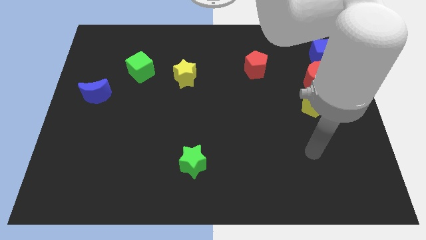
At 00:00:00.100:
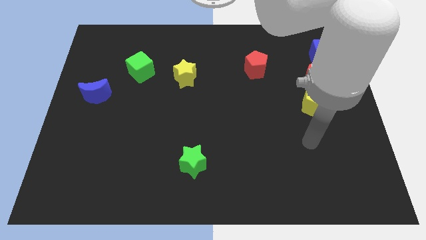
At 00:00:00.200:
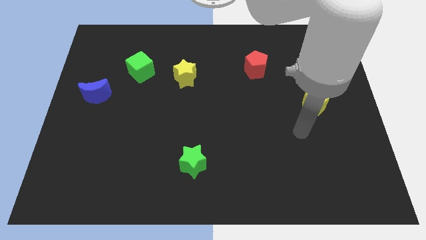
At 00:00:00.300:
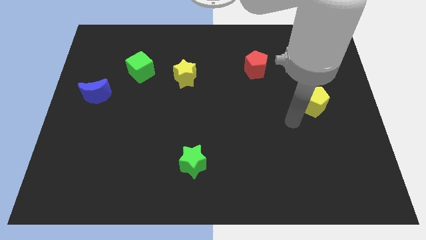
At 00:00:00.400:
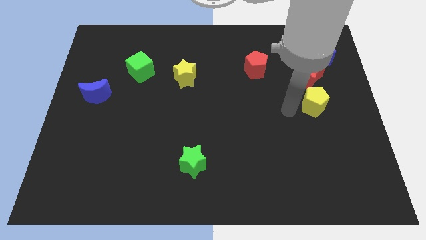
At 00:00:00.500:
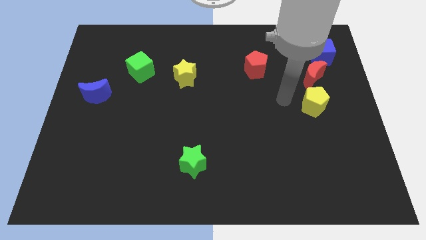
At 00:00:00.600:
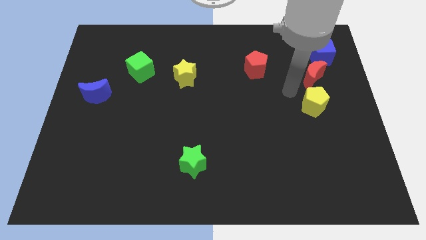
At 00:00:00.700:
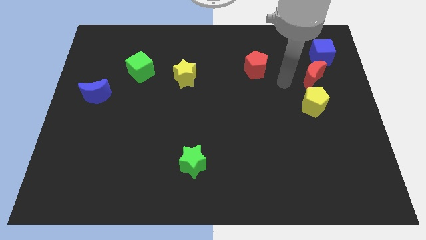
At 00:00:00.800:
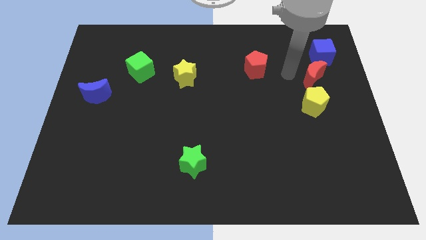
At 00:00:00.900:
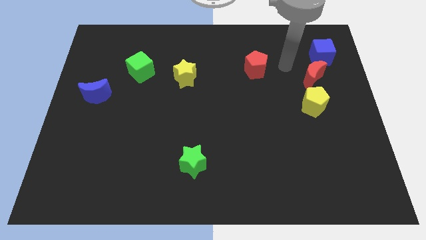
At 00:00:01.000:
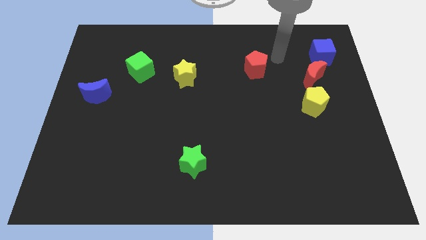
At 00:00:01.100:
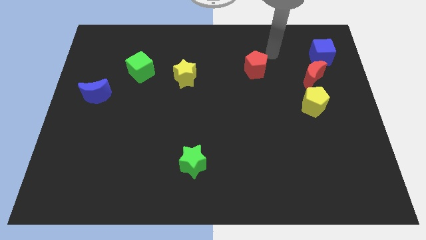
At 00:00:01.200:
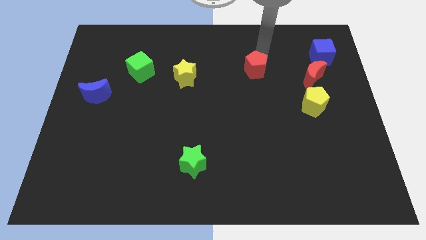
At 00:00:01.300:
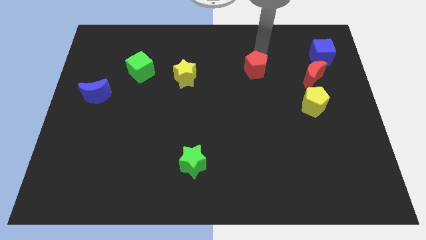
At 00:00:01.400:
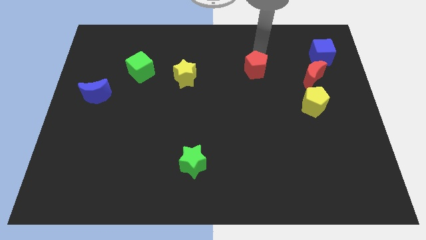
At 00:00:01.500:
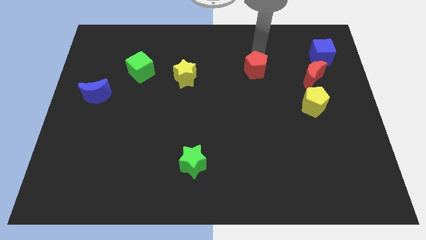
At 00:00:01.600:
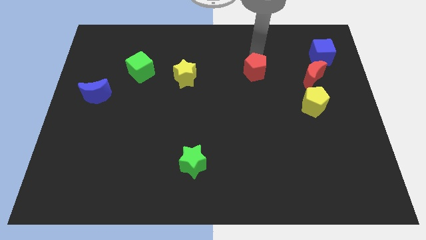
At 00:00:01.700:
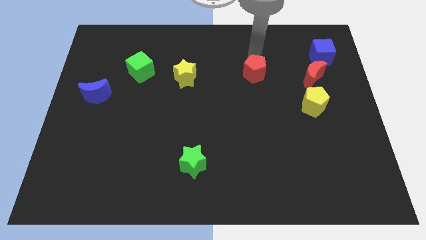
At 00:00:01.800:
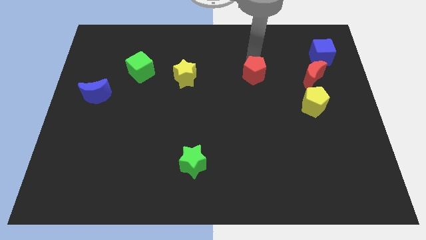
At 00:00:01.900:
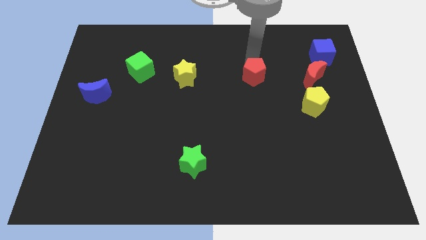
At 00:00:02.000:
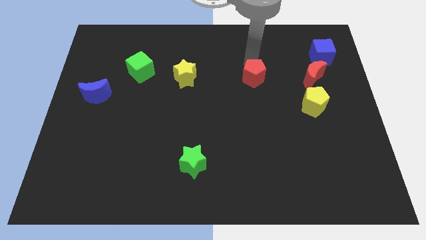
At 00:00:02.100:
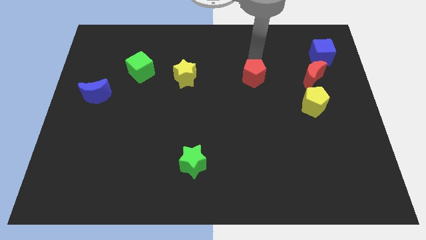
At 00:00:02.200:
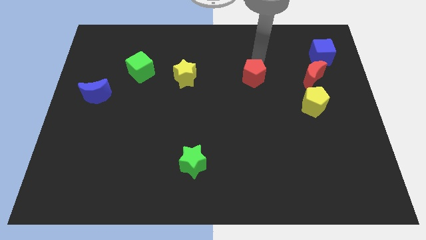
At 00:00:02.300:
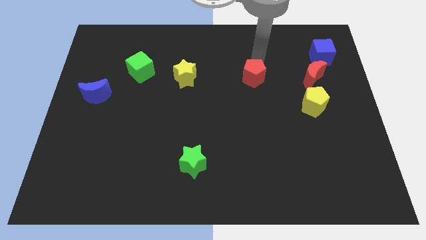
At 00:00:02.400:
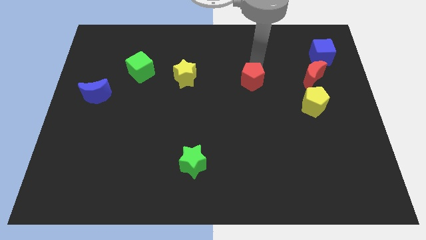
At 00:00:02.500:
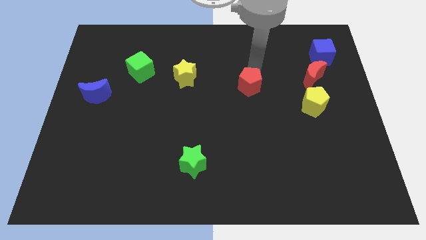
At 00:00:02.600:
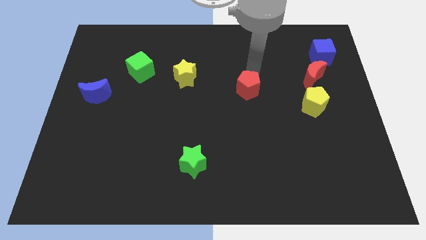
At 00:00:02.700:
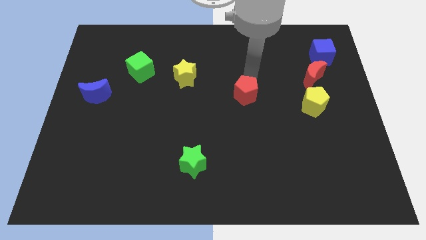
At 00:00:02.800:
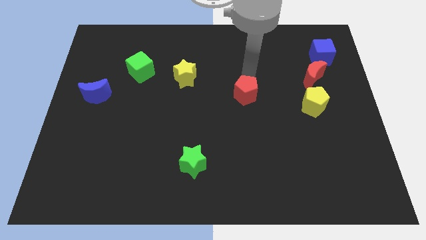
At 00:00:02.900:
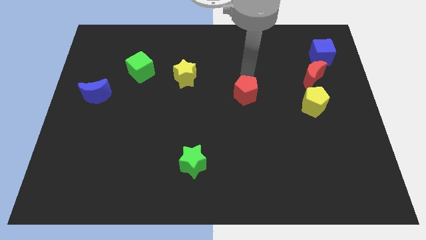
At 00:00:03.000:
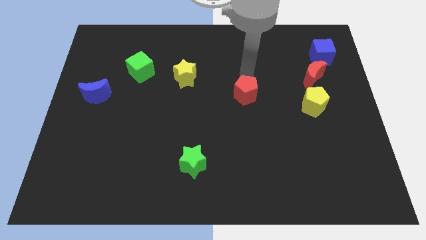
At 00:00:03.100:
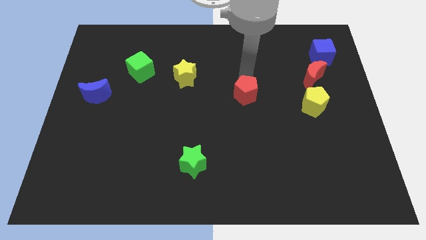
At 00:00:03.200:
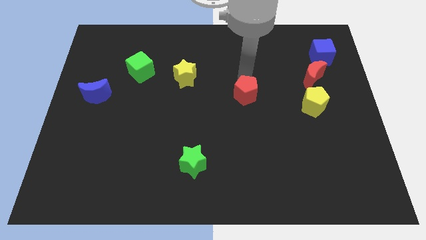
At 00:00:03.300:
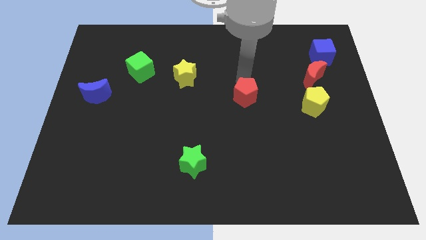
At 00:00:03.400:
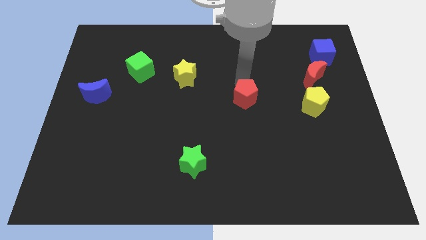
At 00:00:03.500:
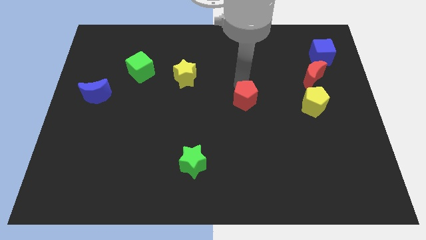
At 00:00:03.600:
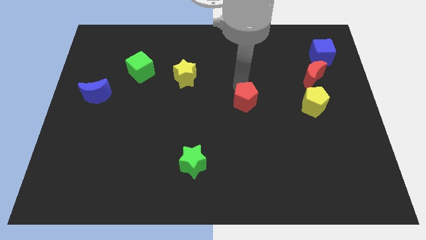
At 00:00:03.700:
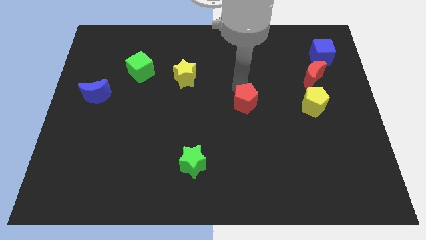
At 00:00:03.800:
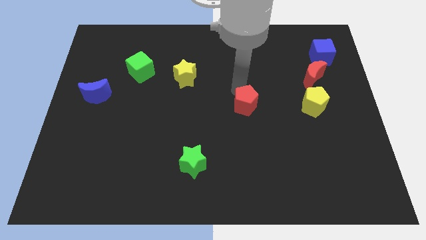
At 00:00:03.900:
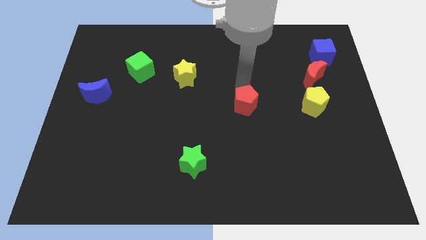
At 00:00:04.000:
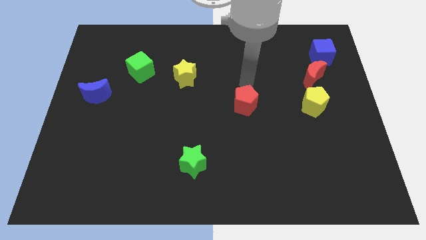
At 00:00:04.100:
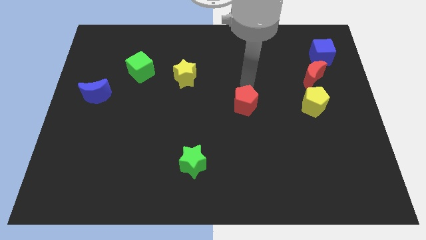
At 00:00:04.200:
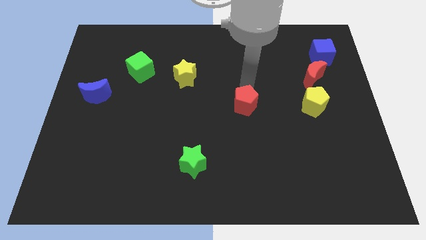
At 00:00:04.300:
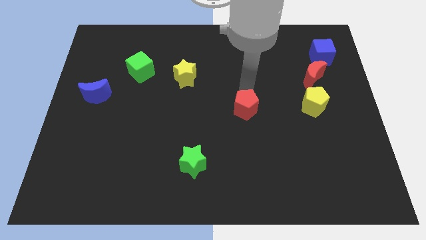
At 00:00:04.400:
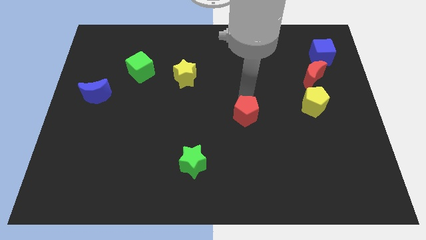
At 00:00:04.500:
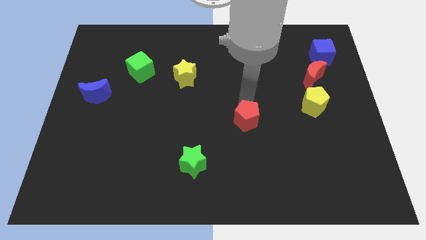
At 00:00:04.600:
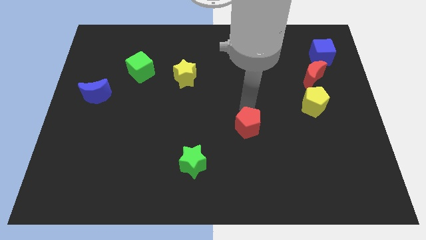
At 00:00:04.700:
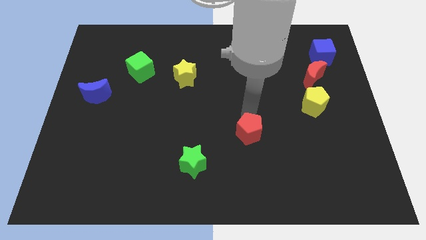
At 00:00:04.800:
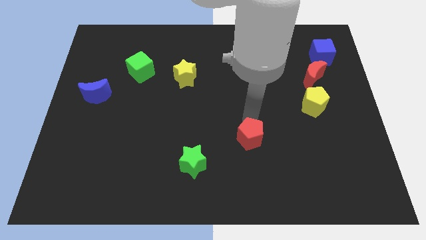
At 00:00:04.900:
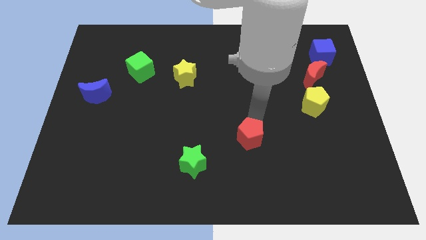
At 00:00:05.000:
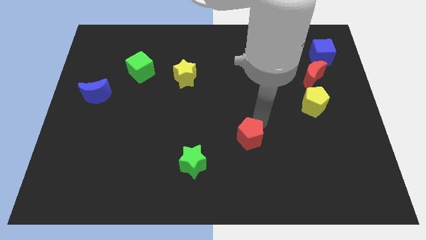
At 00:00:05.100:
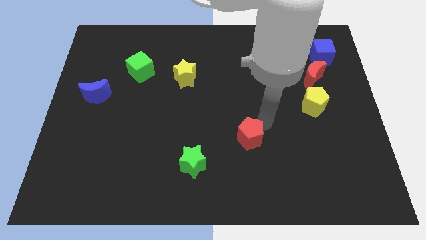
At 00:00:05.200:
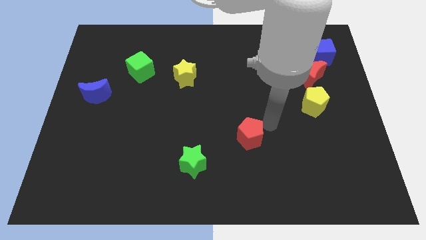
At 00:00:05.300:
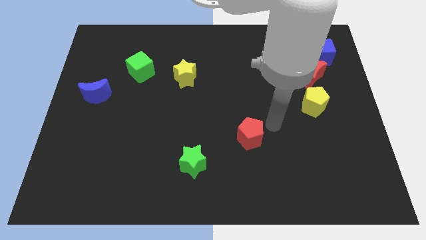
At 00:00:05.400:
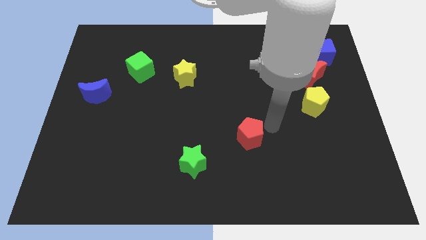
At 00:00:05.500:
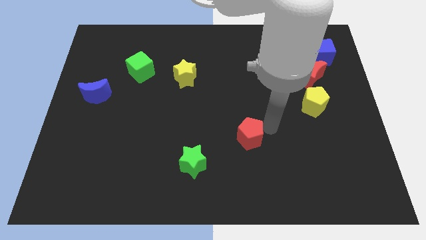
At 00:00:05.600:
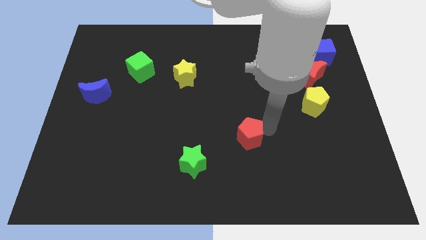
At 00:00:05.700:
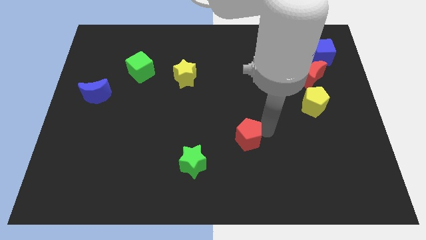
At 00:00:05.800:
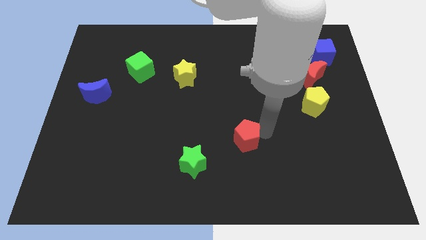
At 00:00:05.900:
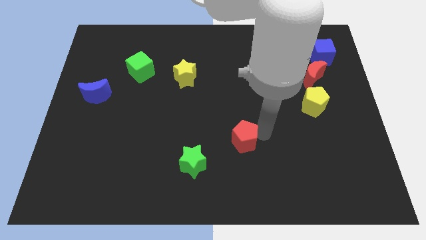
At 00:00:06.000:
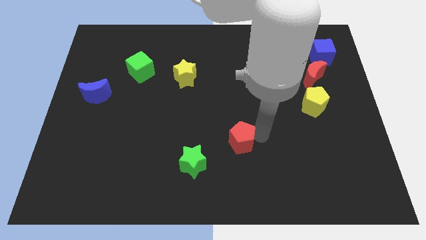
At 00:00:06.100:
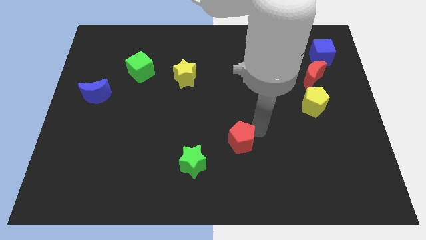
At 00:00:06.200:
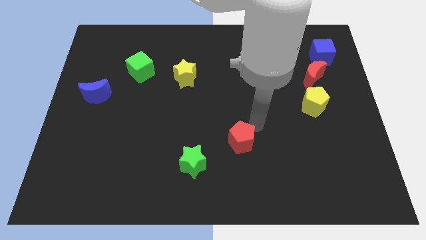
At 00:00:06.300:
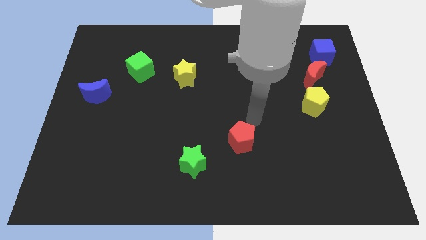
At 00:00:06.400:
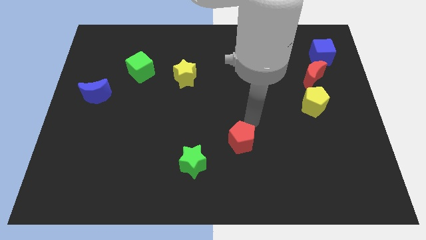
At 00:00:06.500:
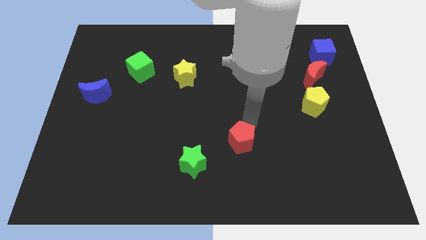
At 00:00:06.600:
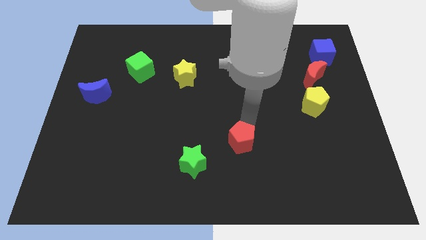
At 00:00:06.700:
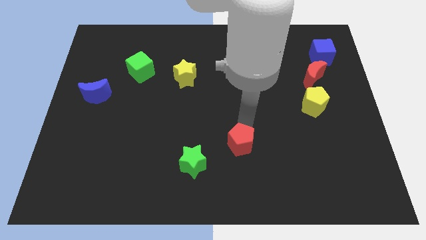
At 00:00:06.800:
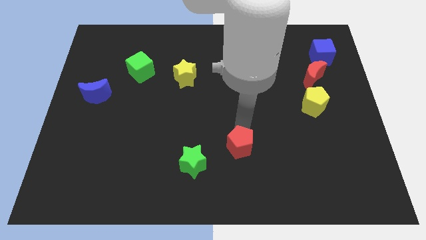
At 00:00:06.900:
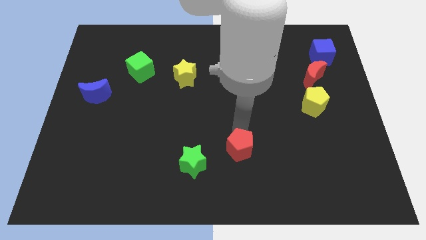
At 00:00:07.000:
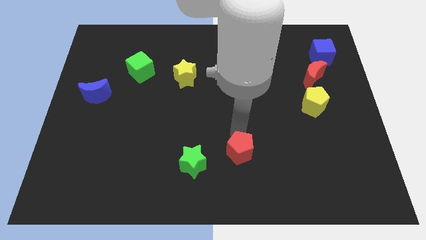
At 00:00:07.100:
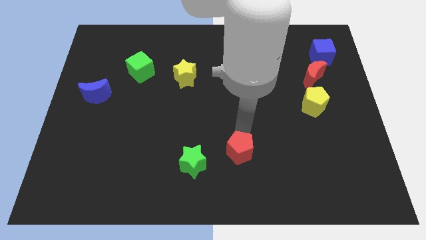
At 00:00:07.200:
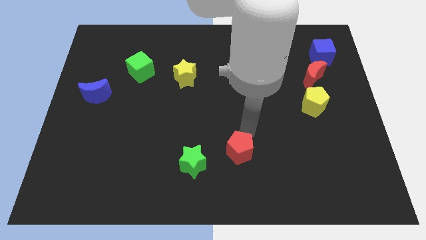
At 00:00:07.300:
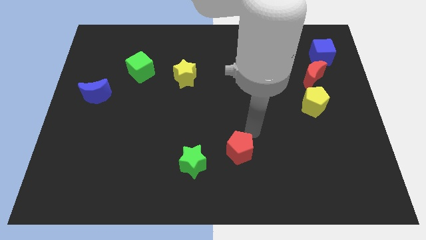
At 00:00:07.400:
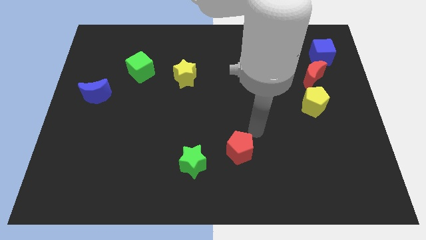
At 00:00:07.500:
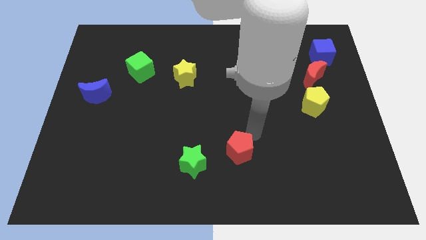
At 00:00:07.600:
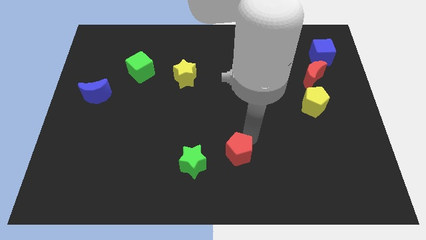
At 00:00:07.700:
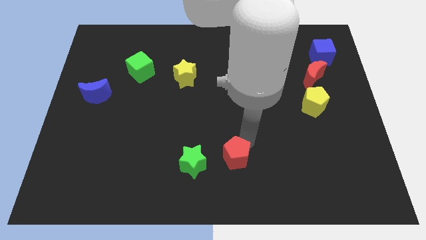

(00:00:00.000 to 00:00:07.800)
push the red pentagon to the bottom
